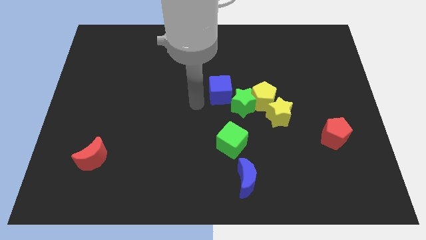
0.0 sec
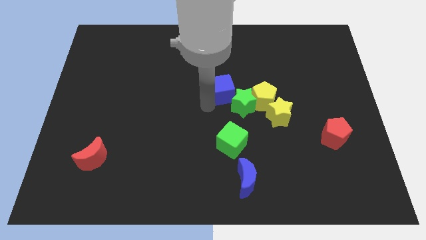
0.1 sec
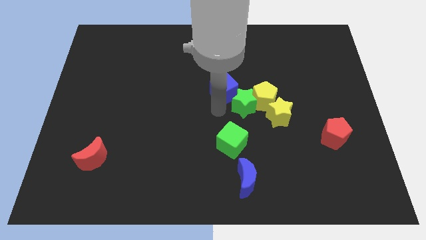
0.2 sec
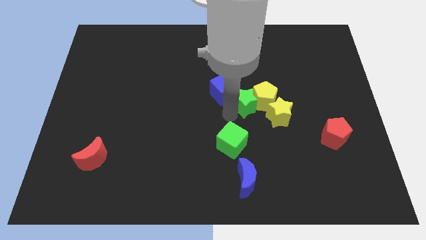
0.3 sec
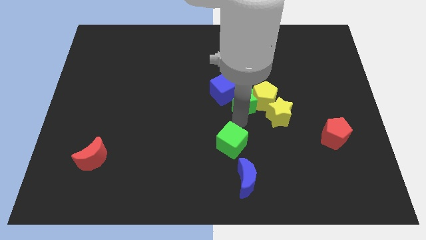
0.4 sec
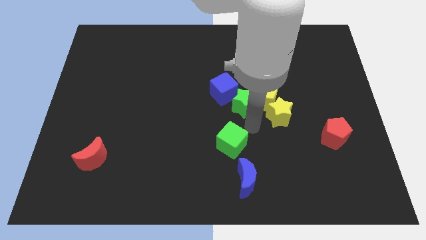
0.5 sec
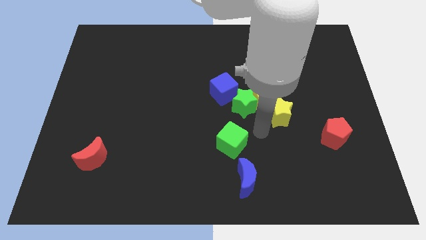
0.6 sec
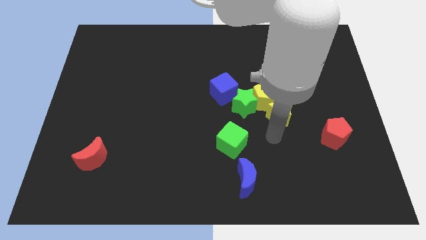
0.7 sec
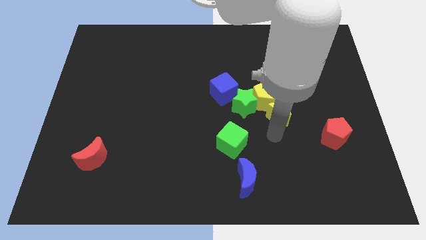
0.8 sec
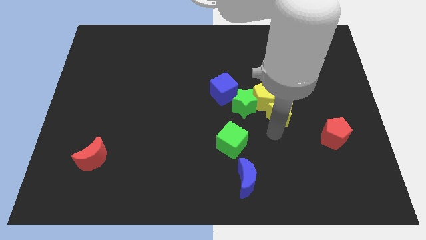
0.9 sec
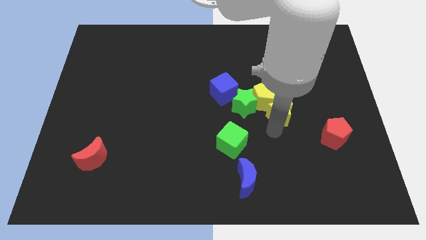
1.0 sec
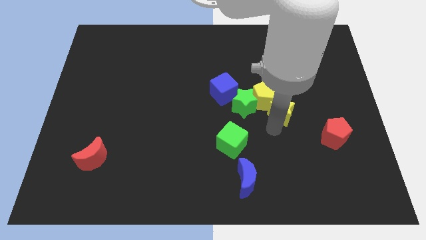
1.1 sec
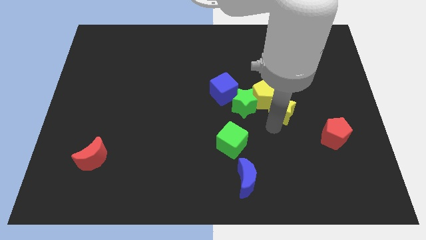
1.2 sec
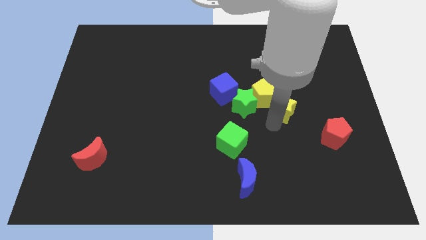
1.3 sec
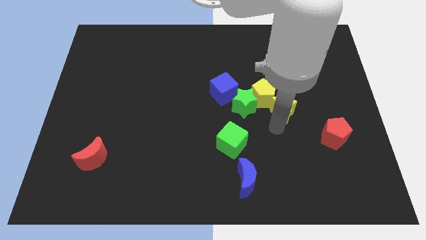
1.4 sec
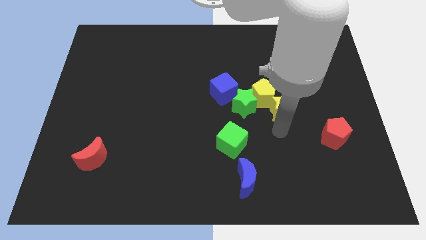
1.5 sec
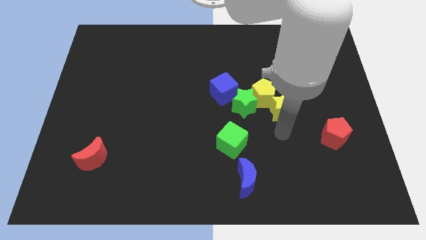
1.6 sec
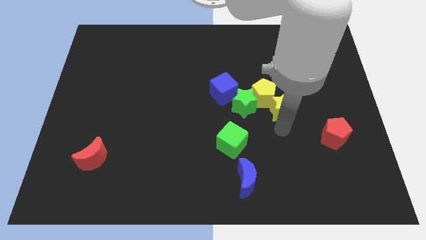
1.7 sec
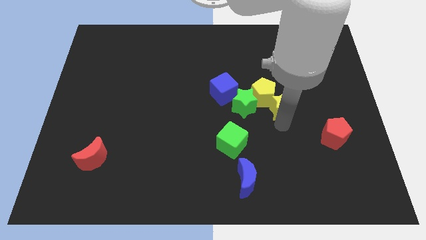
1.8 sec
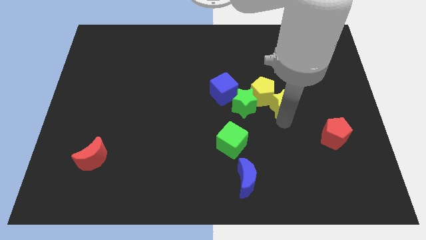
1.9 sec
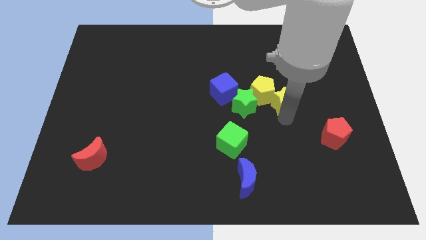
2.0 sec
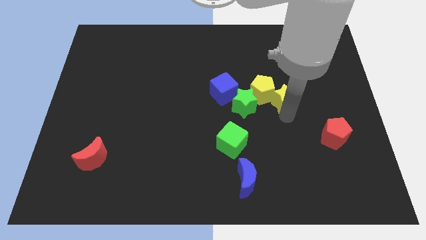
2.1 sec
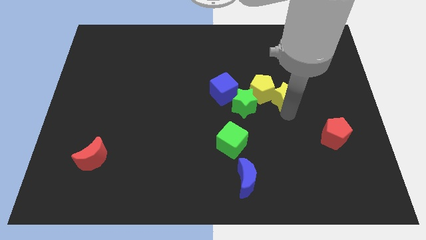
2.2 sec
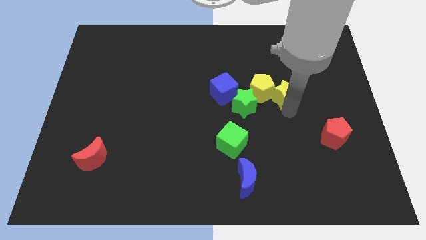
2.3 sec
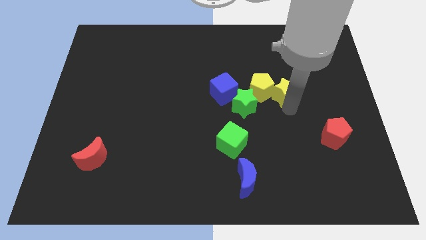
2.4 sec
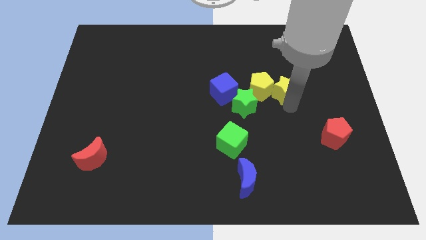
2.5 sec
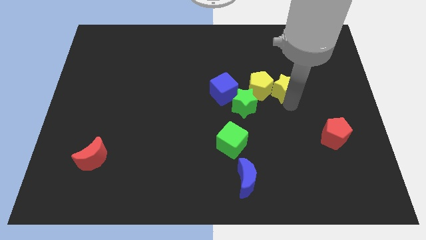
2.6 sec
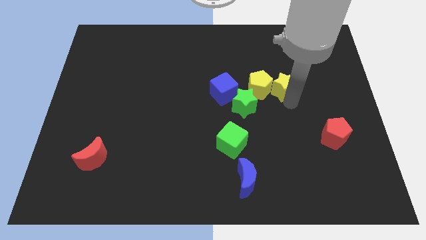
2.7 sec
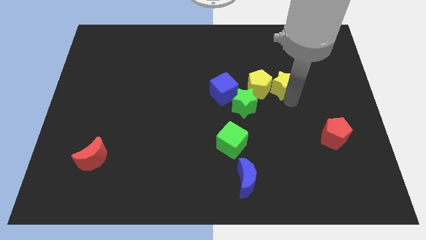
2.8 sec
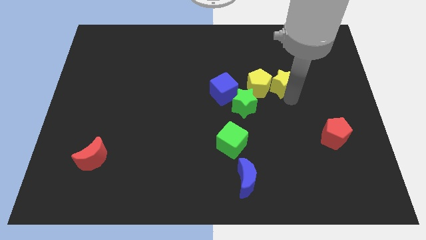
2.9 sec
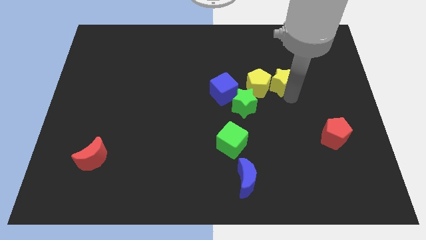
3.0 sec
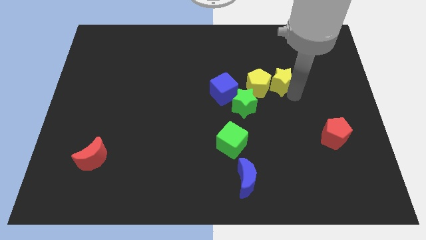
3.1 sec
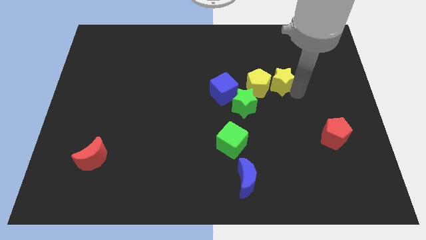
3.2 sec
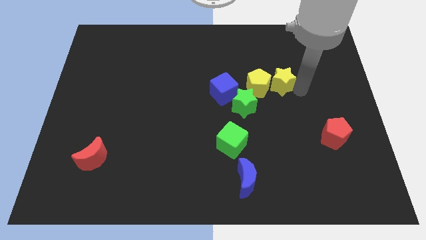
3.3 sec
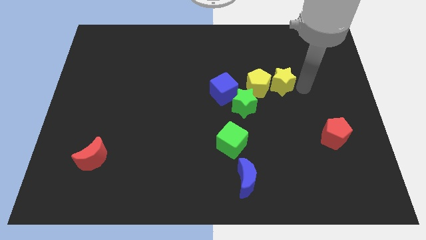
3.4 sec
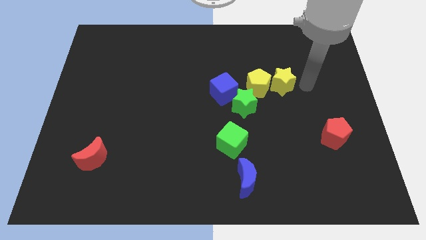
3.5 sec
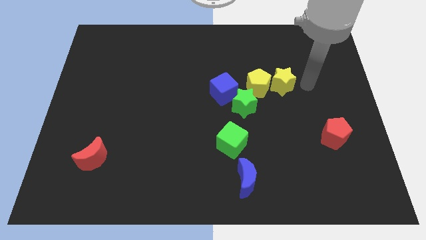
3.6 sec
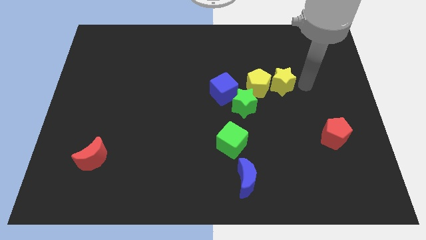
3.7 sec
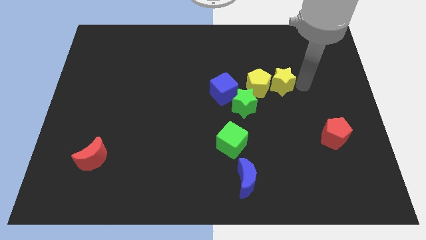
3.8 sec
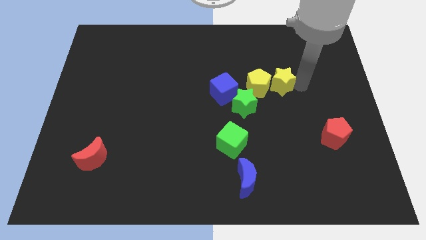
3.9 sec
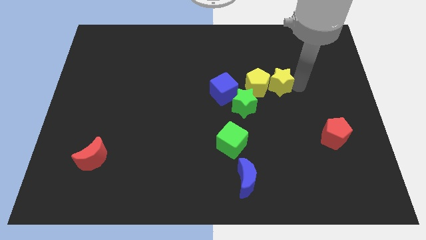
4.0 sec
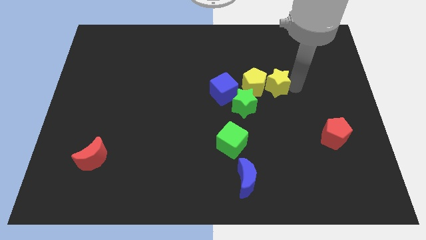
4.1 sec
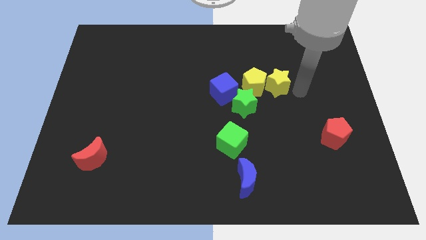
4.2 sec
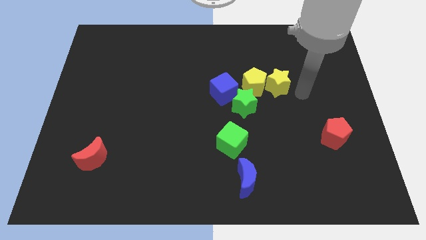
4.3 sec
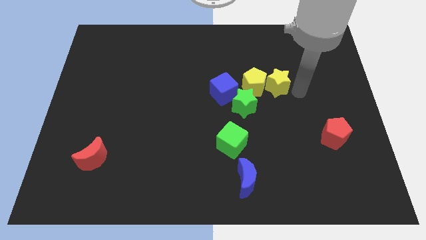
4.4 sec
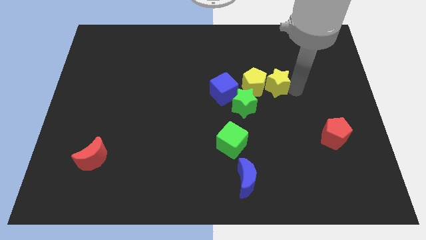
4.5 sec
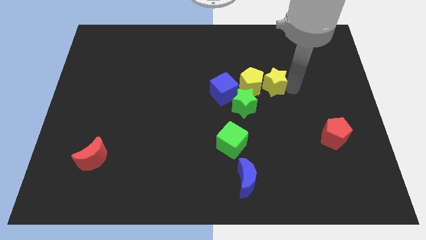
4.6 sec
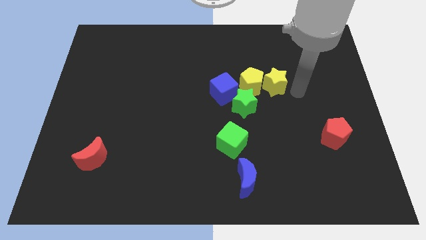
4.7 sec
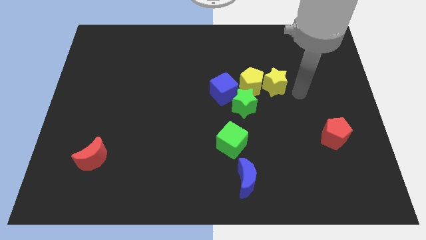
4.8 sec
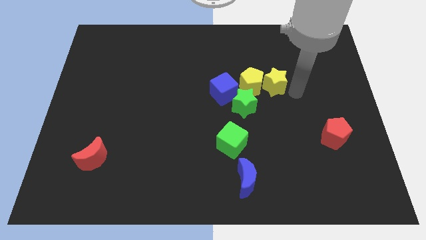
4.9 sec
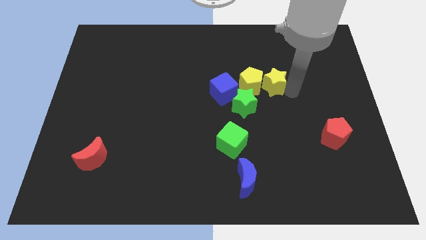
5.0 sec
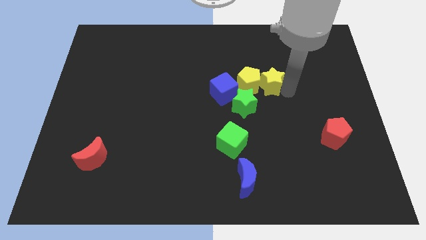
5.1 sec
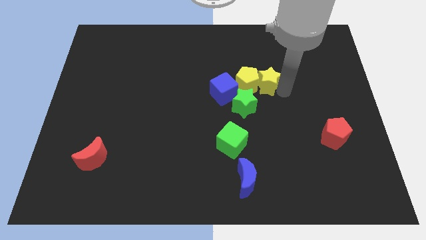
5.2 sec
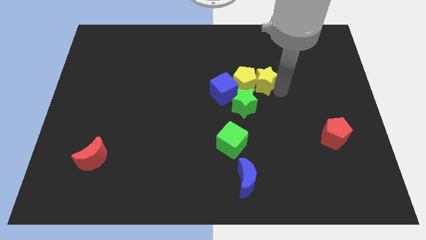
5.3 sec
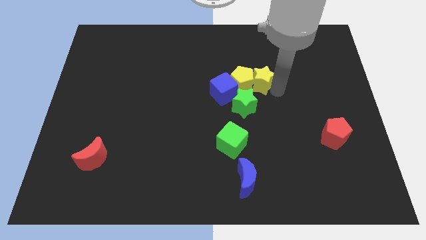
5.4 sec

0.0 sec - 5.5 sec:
move the yellow star to the top of the green star

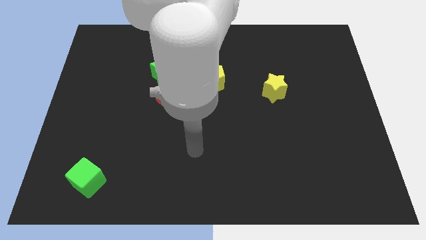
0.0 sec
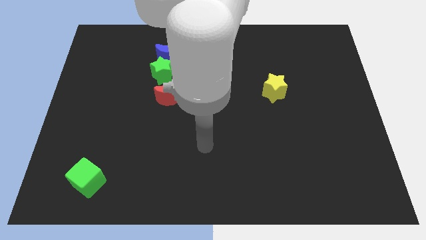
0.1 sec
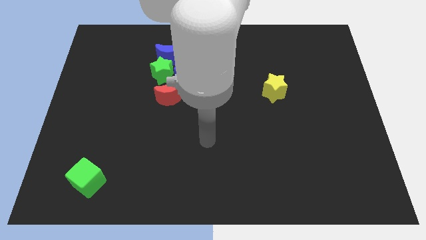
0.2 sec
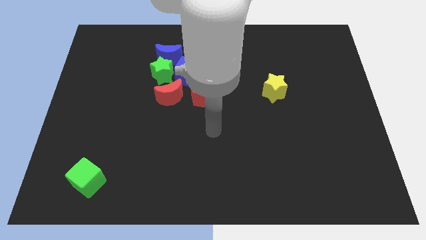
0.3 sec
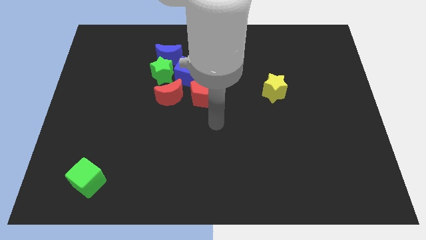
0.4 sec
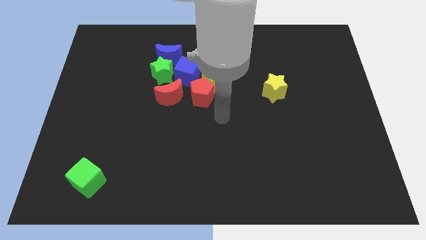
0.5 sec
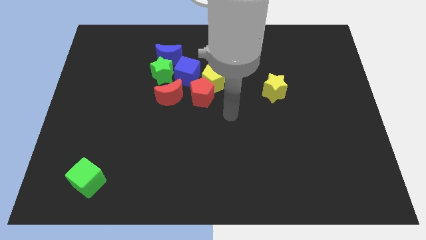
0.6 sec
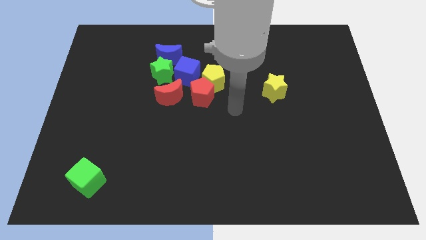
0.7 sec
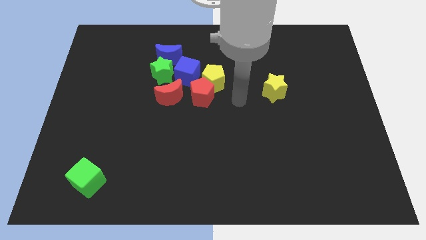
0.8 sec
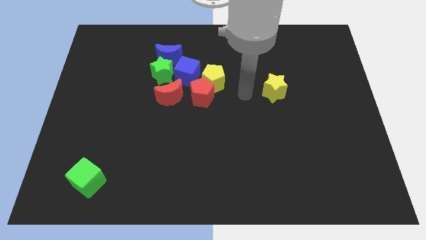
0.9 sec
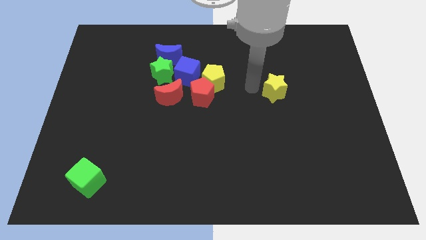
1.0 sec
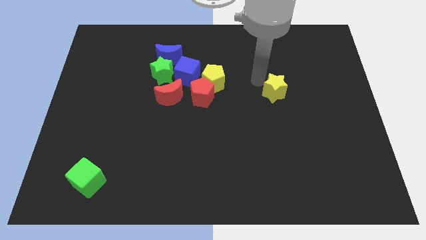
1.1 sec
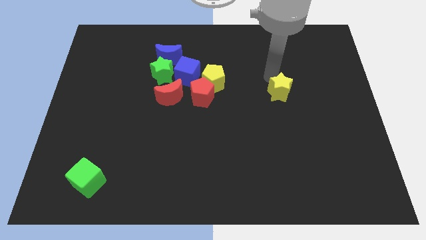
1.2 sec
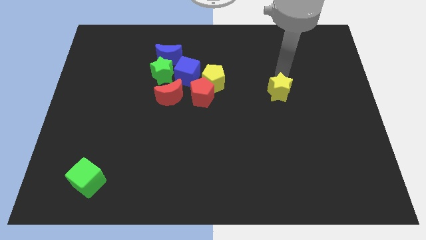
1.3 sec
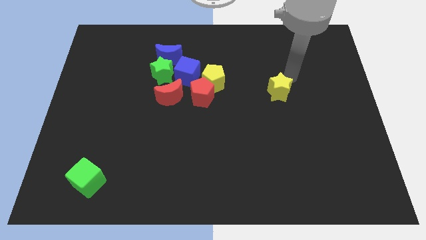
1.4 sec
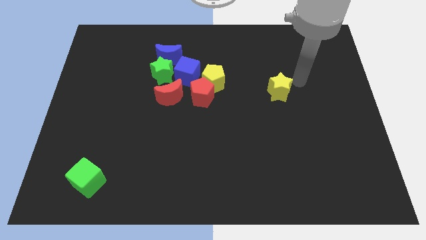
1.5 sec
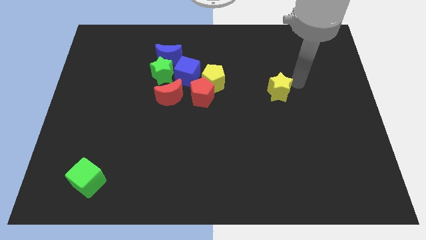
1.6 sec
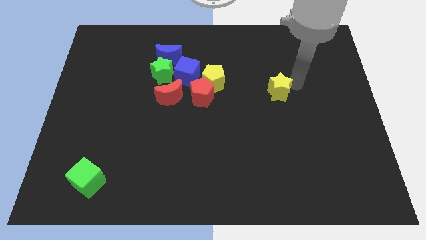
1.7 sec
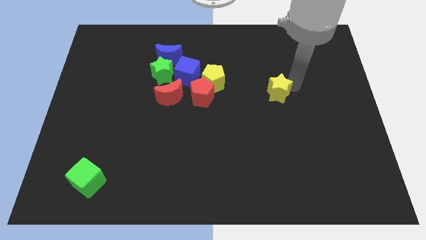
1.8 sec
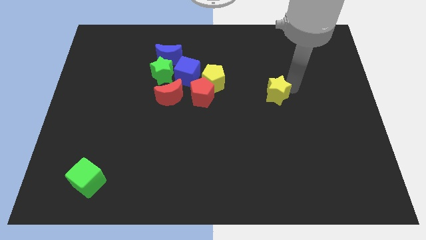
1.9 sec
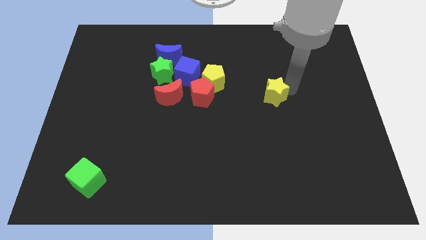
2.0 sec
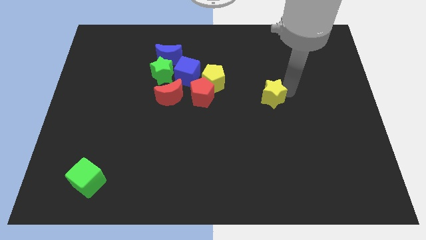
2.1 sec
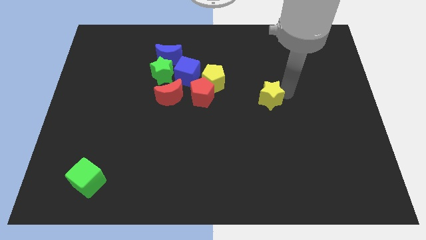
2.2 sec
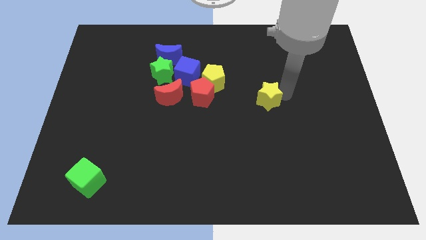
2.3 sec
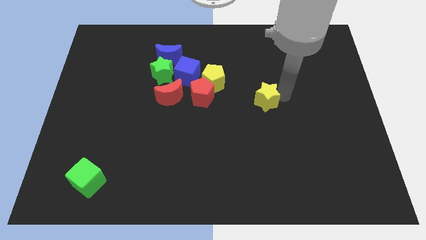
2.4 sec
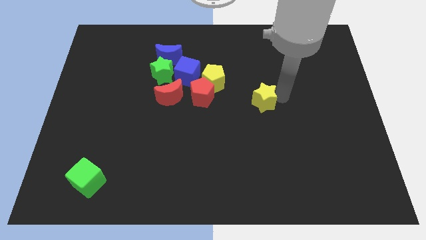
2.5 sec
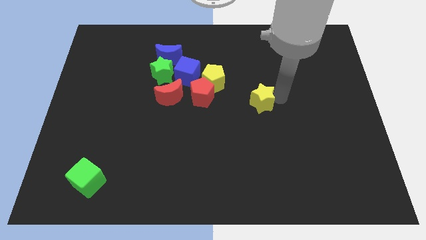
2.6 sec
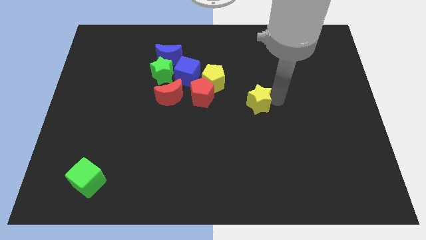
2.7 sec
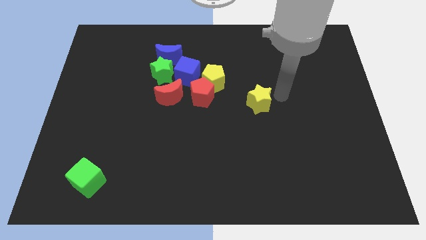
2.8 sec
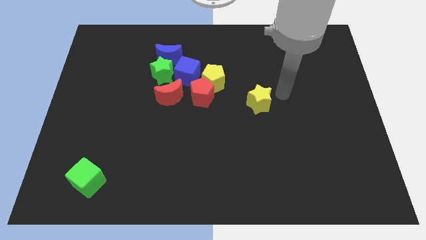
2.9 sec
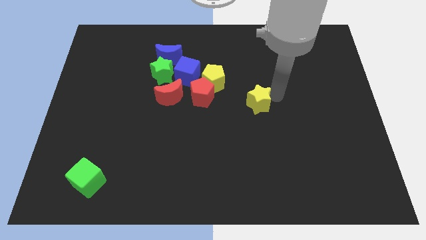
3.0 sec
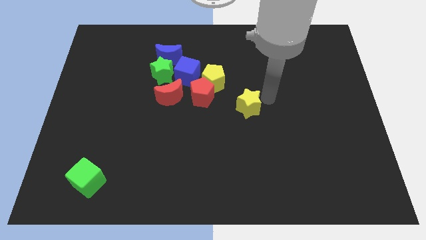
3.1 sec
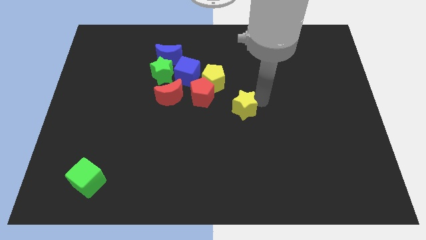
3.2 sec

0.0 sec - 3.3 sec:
push the yellow star diagonally down and to the right of the red pentagon
